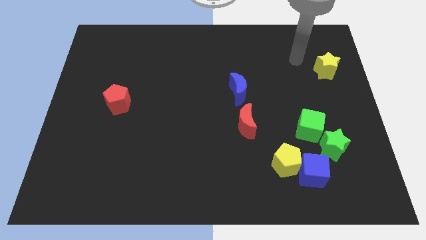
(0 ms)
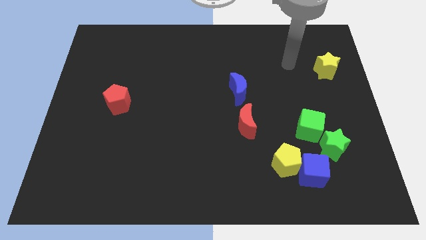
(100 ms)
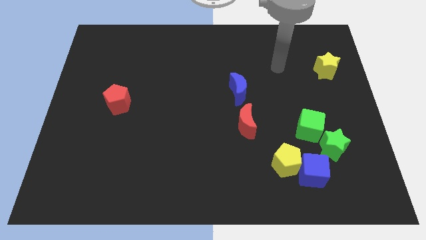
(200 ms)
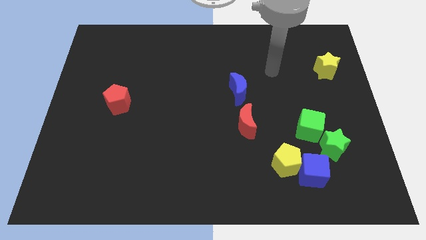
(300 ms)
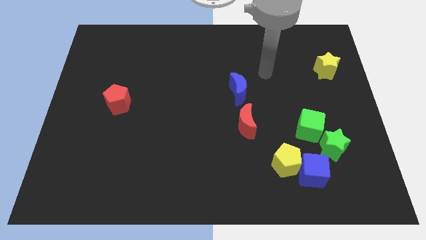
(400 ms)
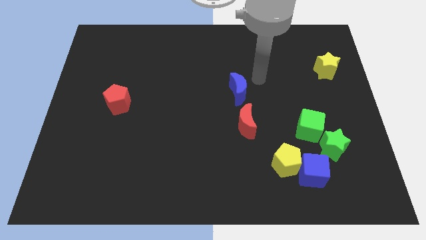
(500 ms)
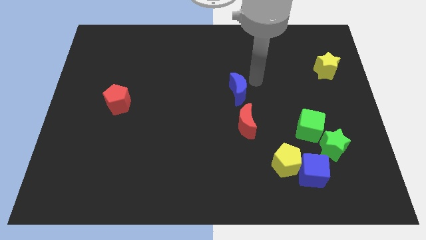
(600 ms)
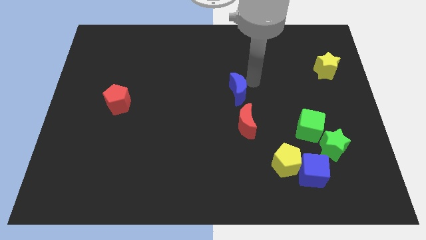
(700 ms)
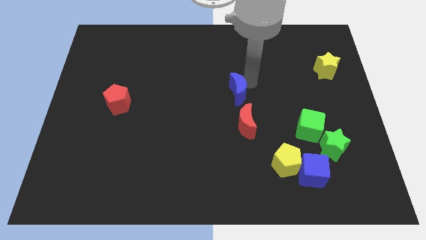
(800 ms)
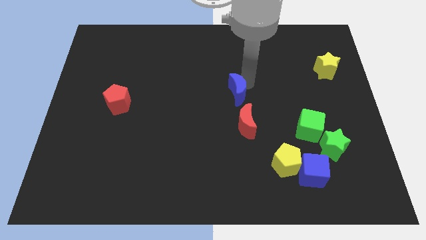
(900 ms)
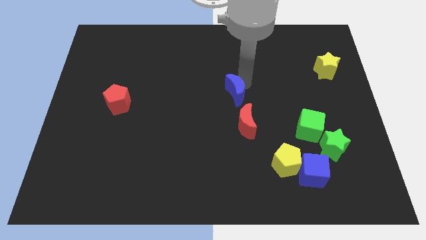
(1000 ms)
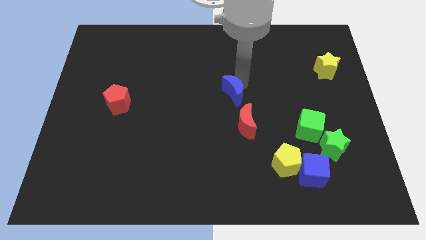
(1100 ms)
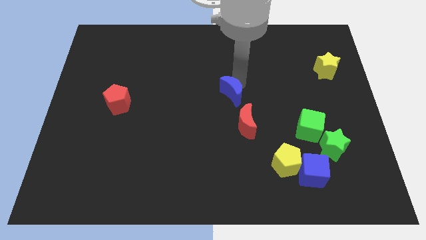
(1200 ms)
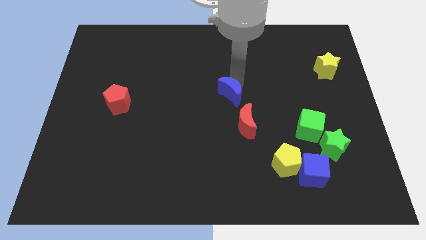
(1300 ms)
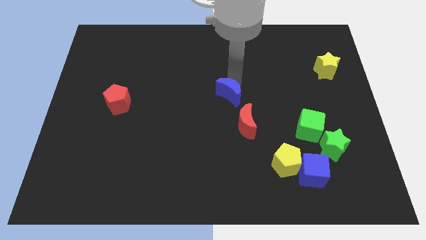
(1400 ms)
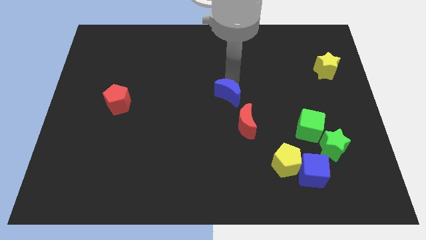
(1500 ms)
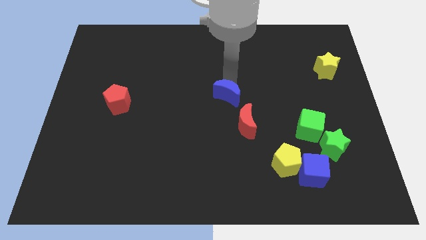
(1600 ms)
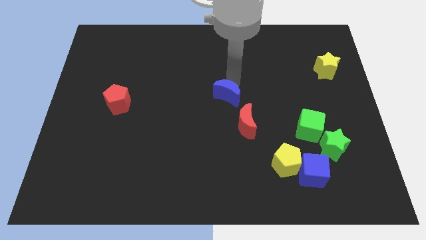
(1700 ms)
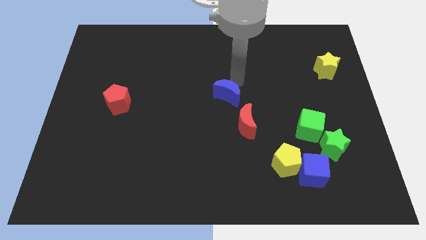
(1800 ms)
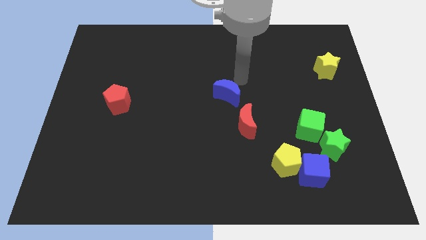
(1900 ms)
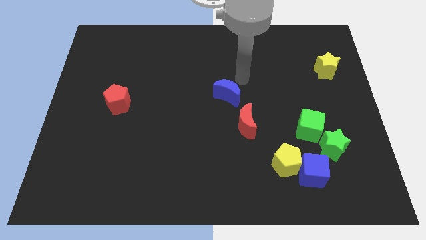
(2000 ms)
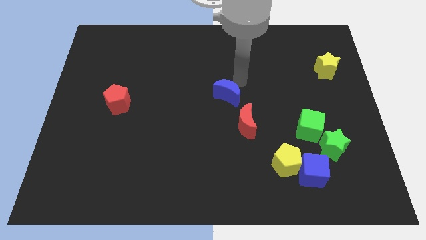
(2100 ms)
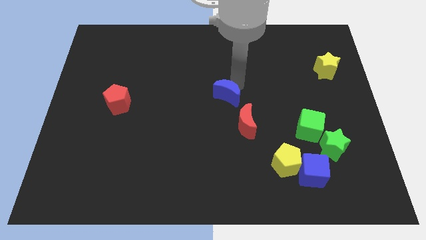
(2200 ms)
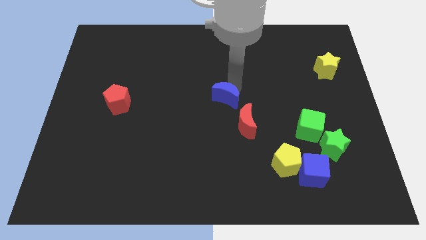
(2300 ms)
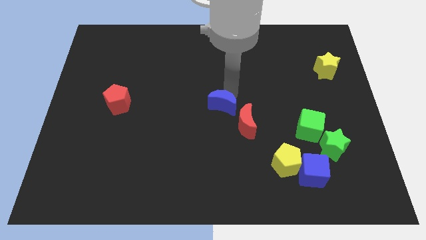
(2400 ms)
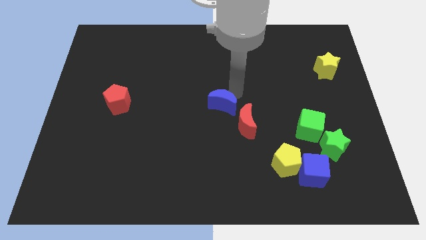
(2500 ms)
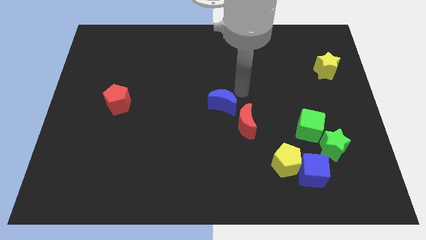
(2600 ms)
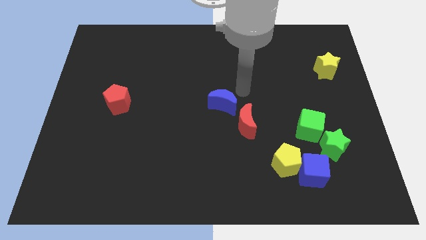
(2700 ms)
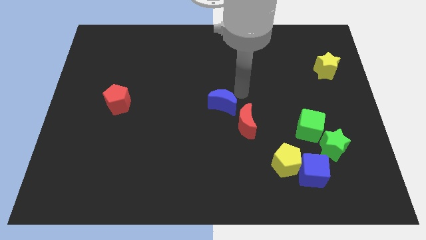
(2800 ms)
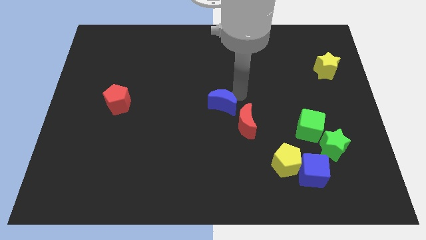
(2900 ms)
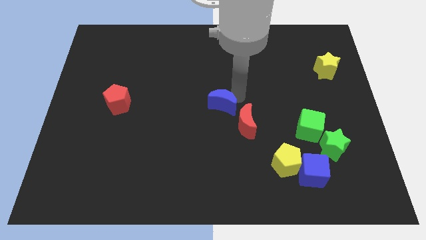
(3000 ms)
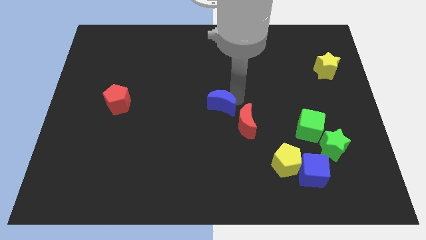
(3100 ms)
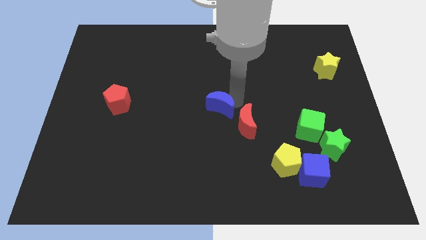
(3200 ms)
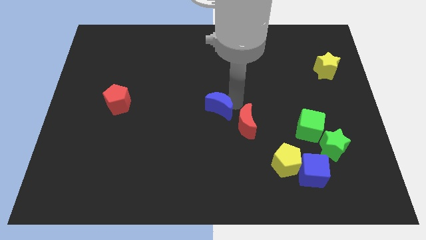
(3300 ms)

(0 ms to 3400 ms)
slide the blue moon a little bit down and to the left

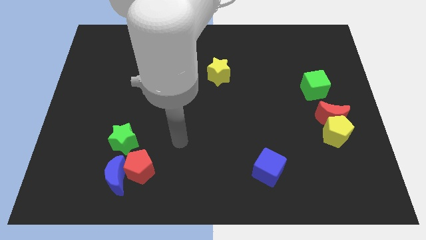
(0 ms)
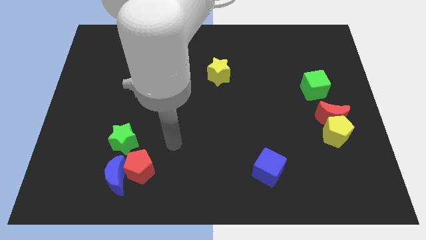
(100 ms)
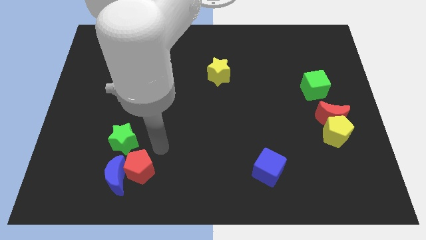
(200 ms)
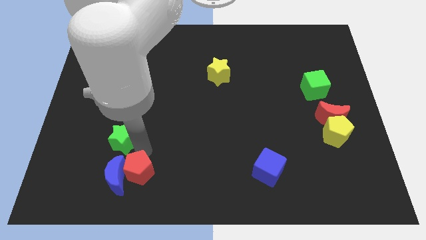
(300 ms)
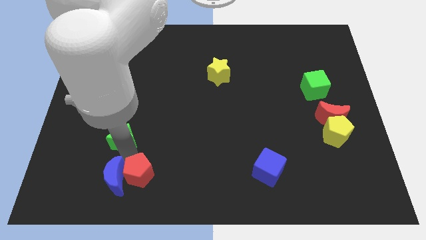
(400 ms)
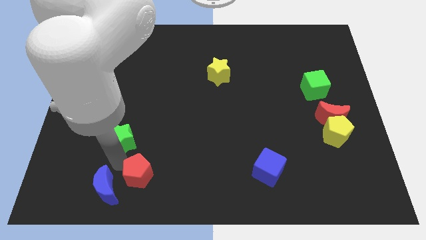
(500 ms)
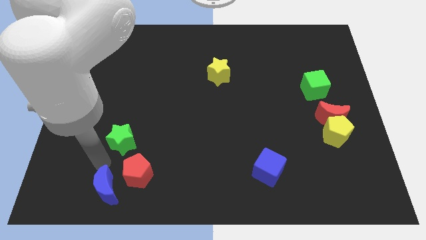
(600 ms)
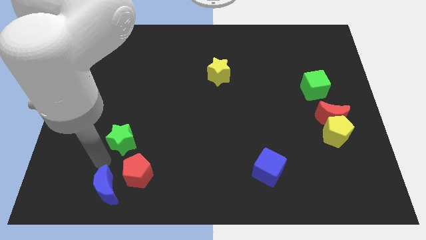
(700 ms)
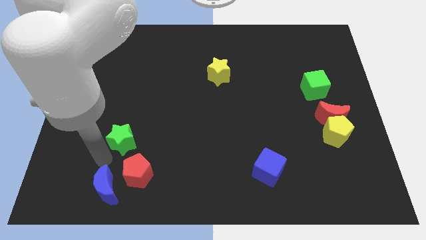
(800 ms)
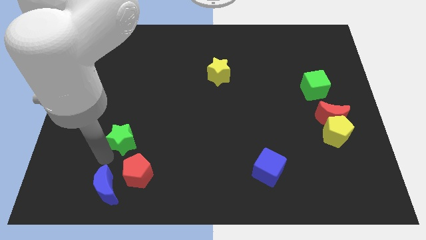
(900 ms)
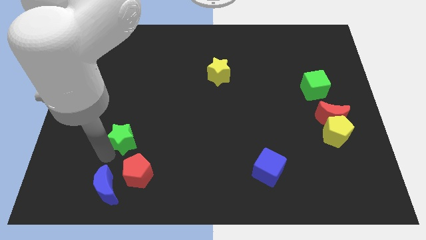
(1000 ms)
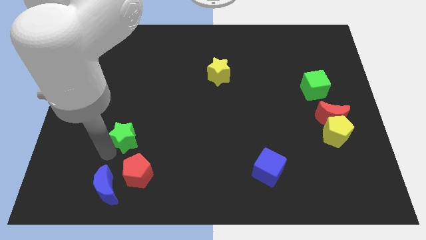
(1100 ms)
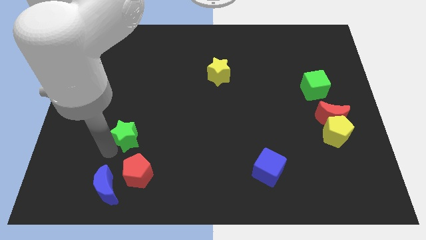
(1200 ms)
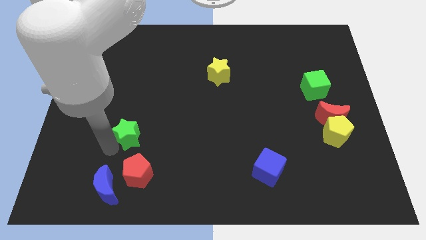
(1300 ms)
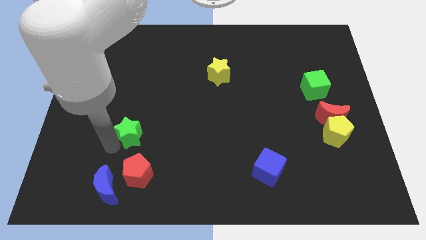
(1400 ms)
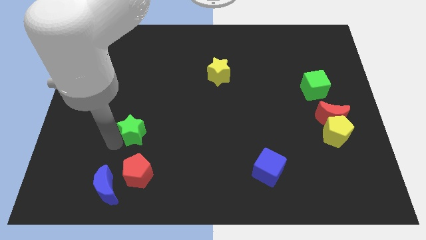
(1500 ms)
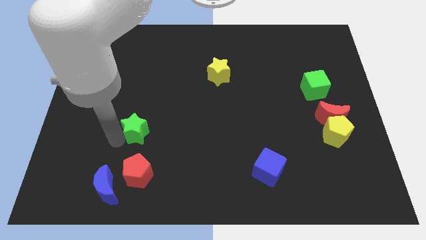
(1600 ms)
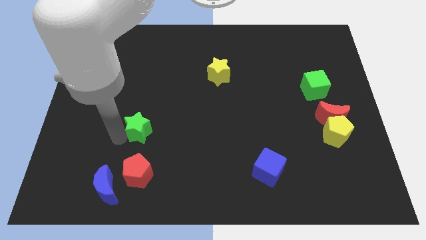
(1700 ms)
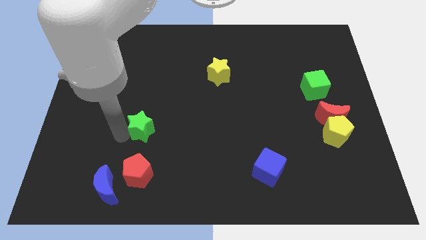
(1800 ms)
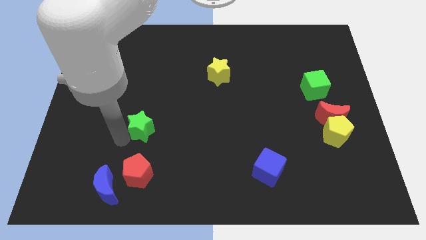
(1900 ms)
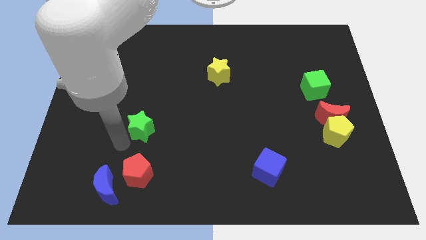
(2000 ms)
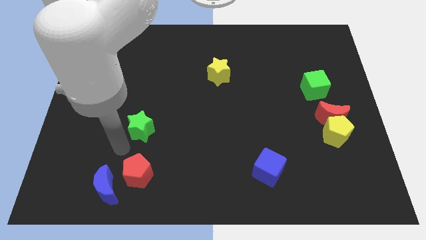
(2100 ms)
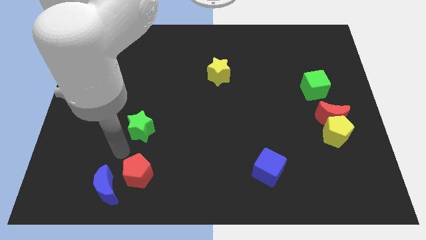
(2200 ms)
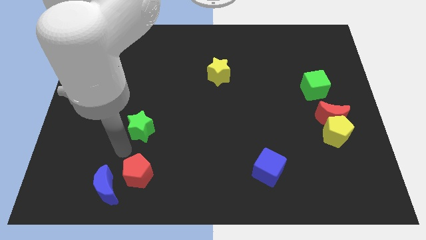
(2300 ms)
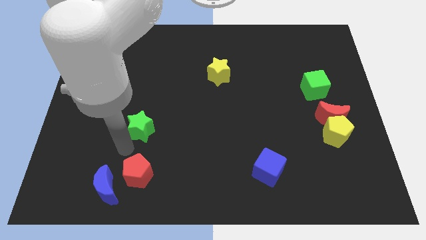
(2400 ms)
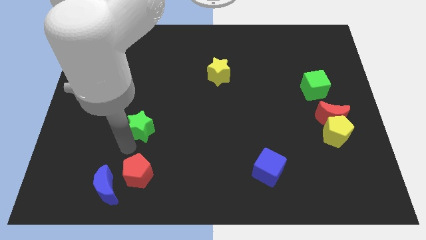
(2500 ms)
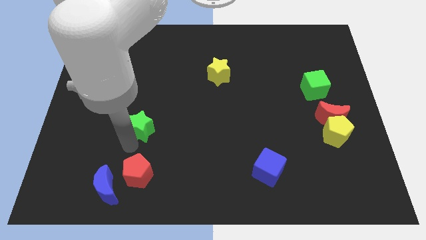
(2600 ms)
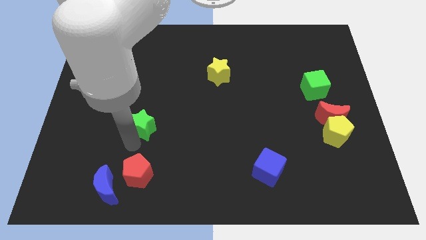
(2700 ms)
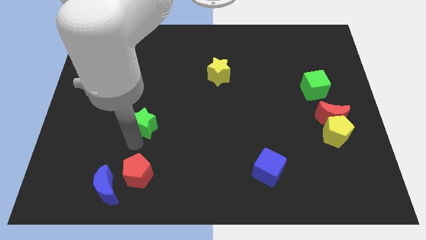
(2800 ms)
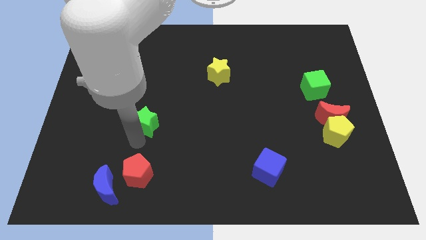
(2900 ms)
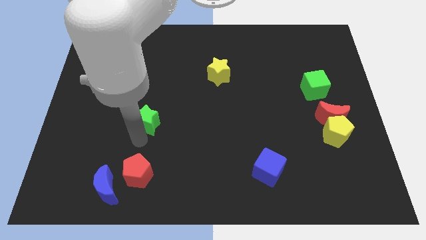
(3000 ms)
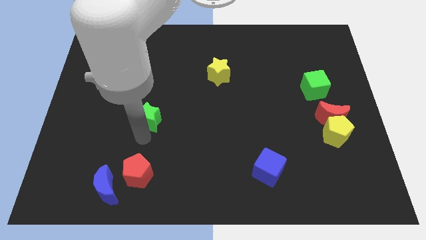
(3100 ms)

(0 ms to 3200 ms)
push the green star diagonally upwards and right a bit

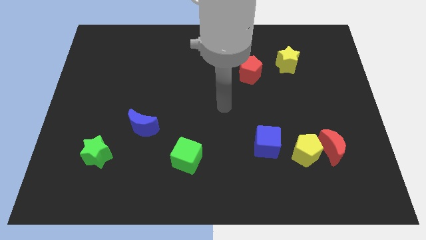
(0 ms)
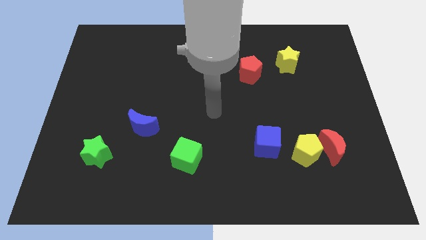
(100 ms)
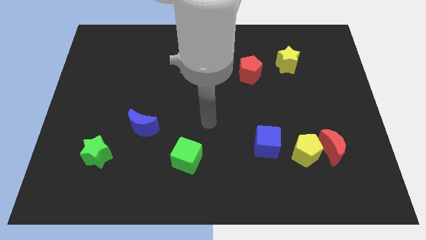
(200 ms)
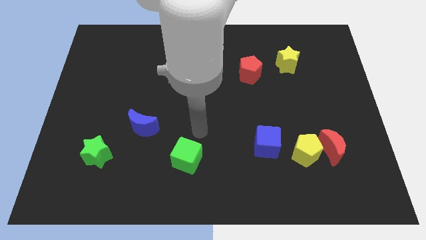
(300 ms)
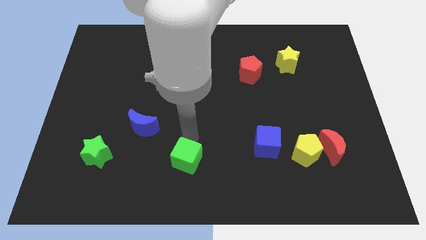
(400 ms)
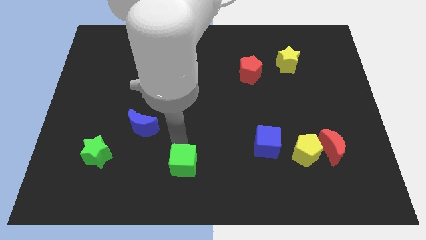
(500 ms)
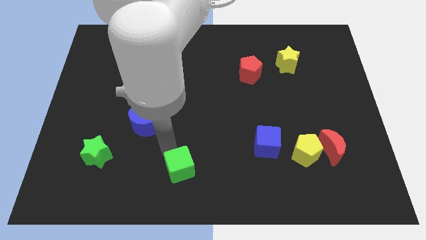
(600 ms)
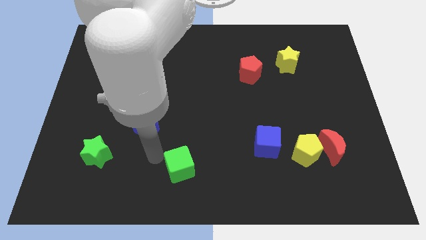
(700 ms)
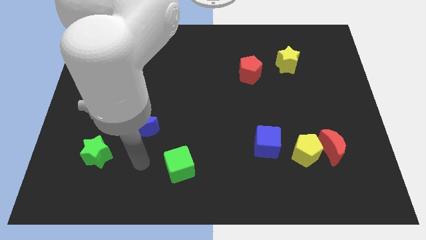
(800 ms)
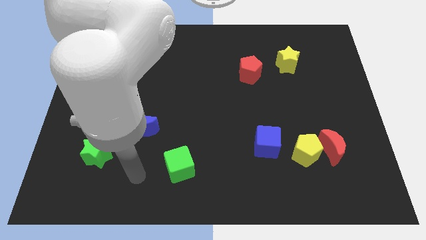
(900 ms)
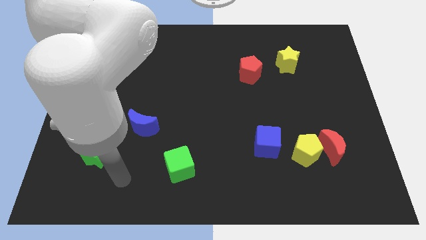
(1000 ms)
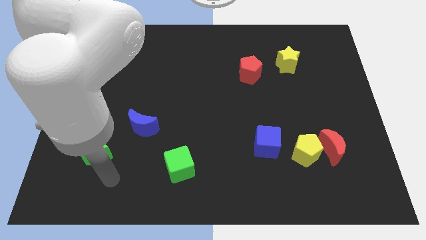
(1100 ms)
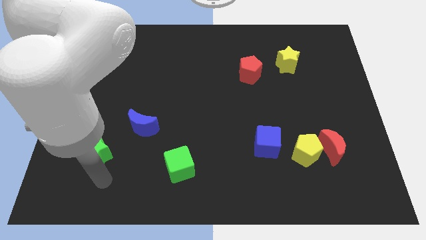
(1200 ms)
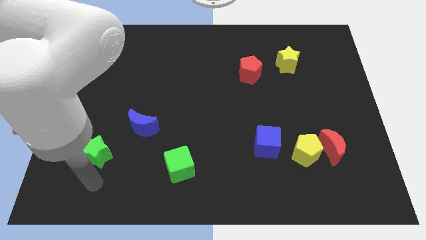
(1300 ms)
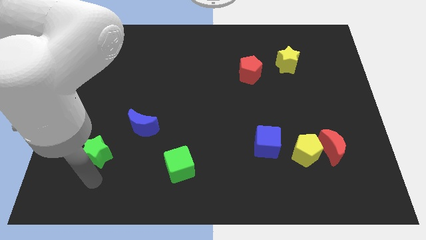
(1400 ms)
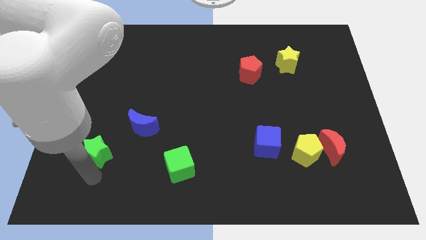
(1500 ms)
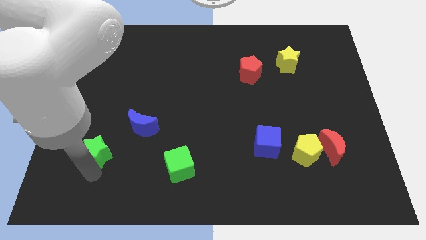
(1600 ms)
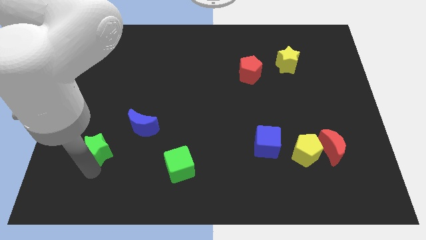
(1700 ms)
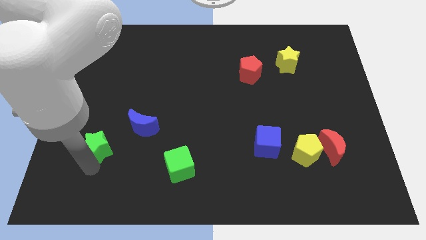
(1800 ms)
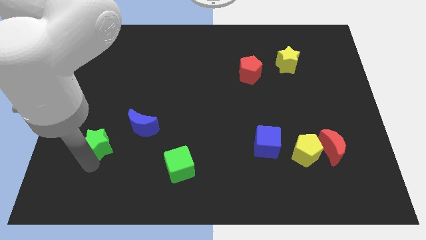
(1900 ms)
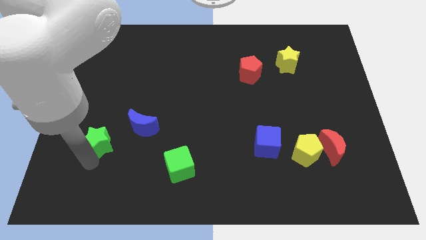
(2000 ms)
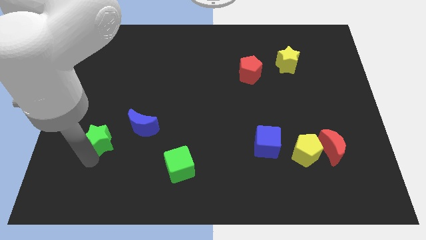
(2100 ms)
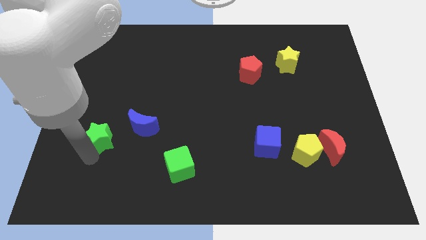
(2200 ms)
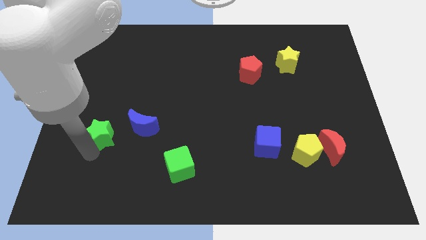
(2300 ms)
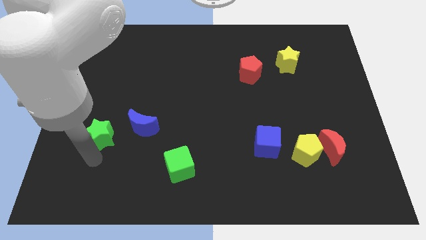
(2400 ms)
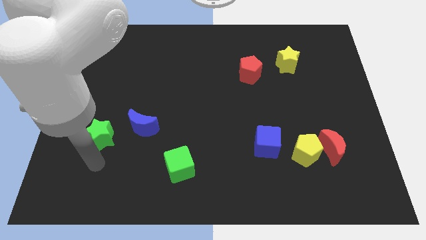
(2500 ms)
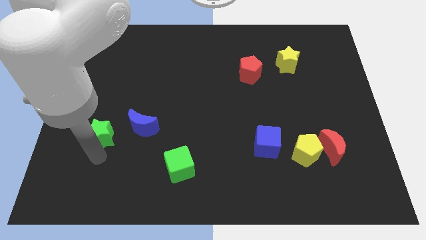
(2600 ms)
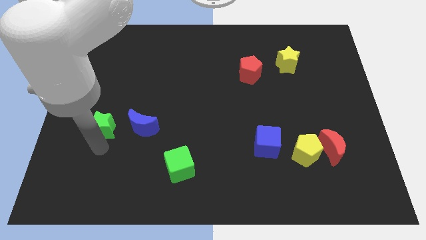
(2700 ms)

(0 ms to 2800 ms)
push the green star a little upwards
